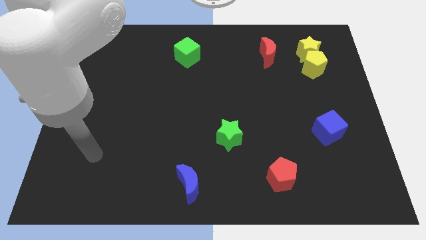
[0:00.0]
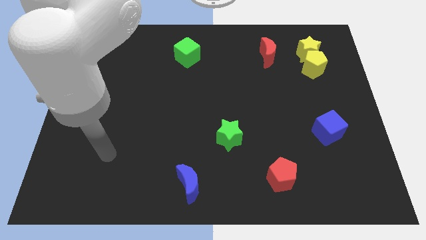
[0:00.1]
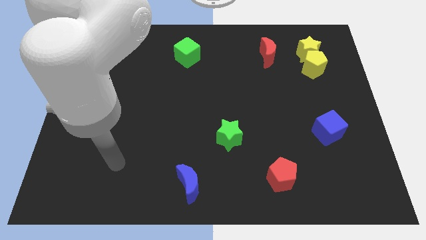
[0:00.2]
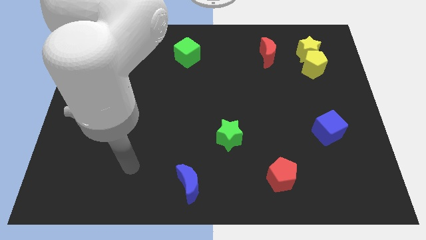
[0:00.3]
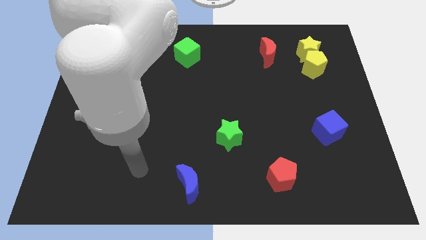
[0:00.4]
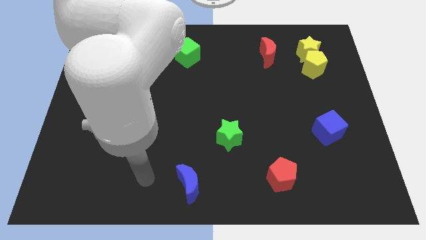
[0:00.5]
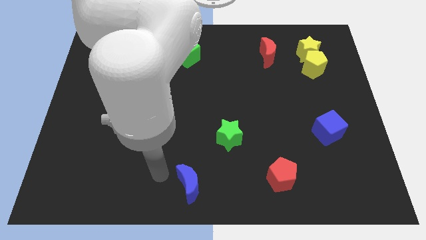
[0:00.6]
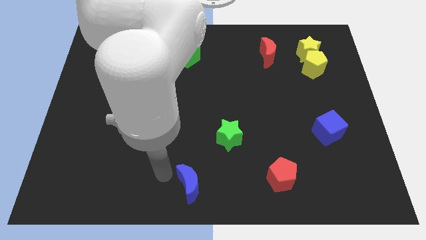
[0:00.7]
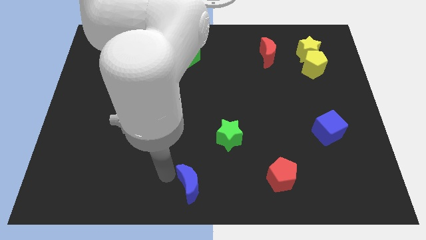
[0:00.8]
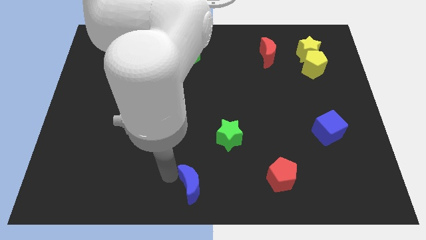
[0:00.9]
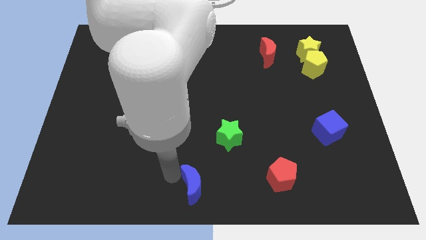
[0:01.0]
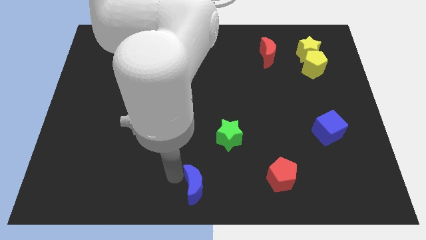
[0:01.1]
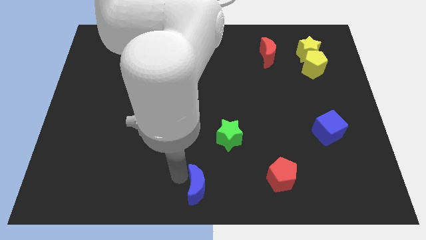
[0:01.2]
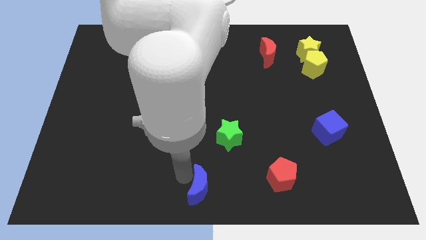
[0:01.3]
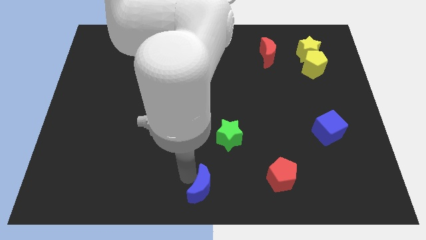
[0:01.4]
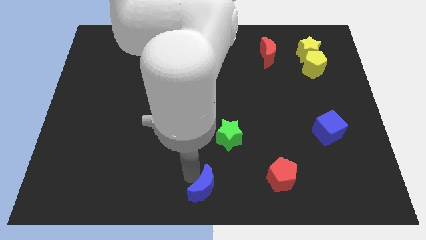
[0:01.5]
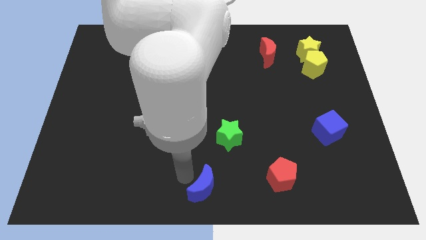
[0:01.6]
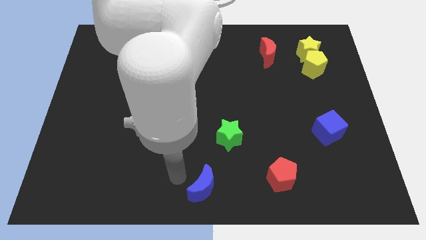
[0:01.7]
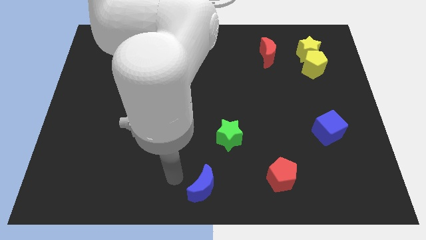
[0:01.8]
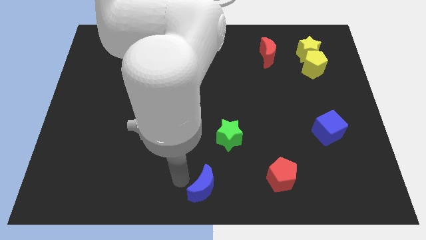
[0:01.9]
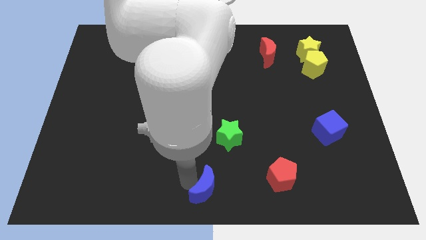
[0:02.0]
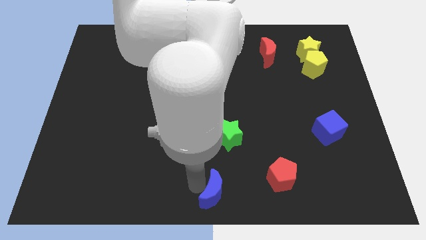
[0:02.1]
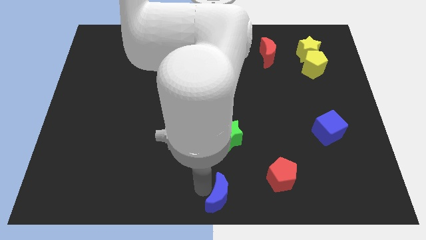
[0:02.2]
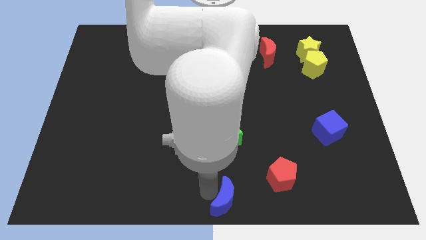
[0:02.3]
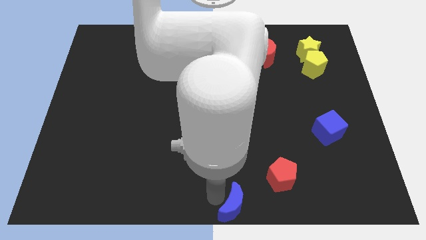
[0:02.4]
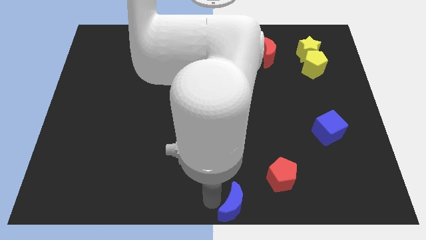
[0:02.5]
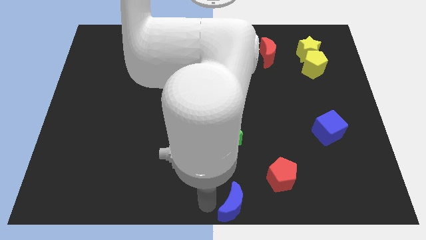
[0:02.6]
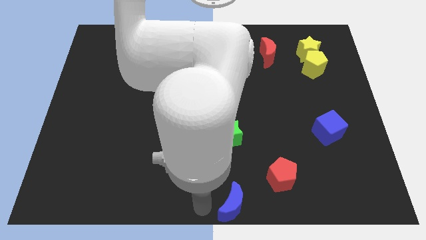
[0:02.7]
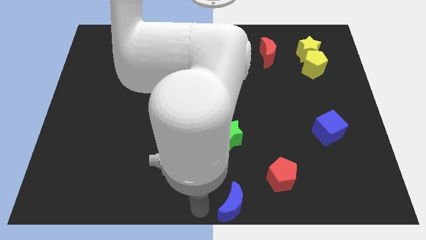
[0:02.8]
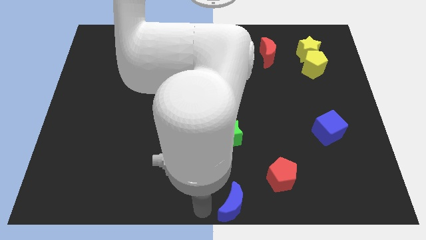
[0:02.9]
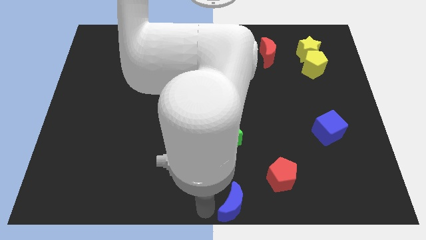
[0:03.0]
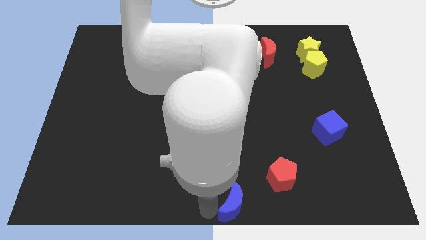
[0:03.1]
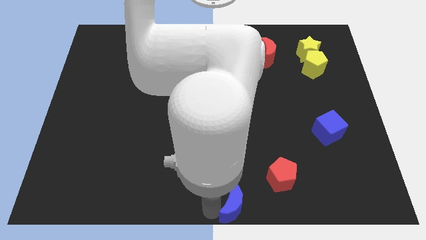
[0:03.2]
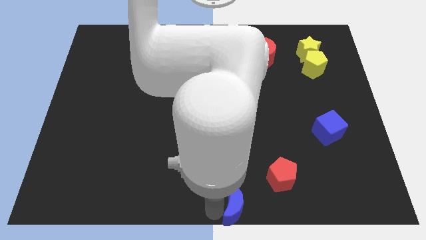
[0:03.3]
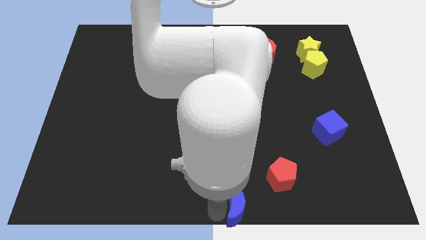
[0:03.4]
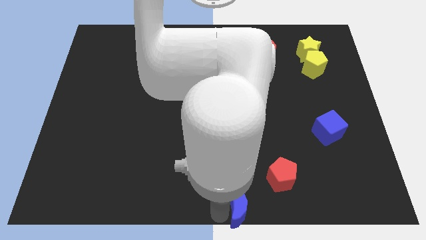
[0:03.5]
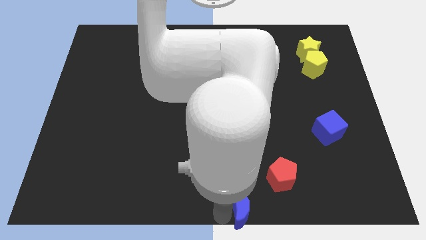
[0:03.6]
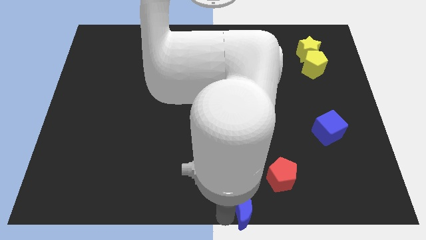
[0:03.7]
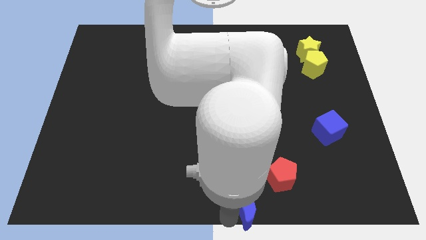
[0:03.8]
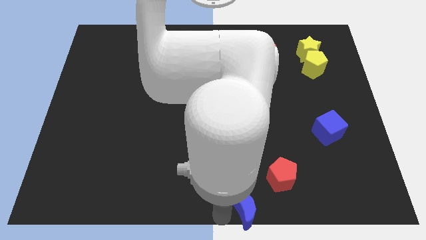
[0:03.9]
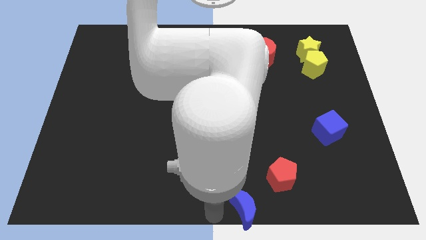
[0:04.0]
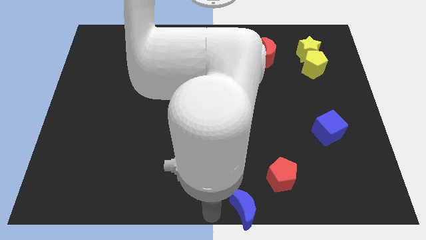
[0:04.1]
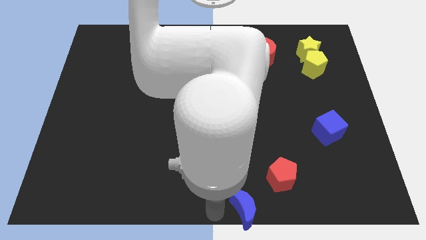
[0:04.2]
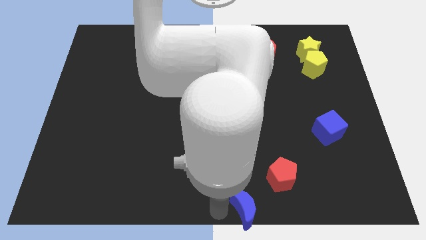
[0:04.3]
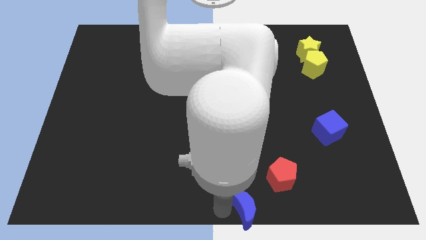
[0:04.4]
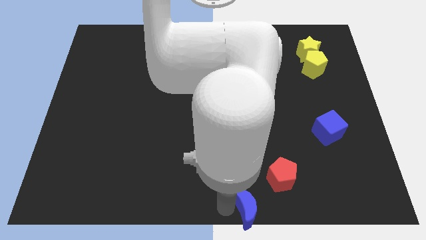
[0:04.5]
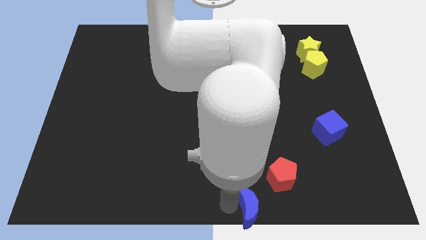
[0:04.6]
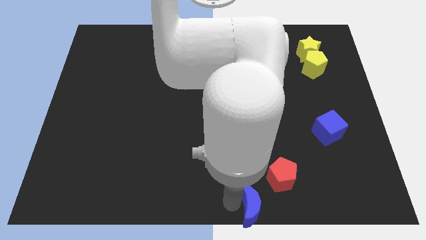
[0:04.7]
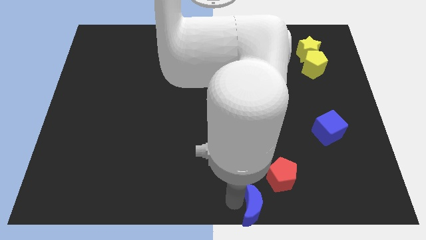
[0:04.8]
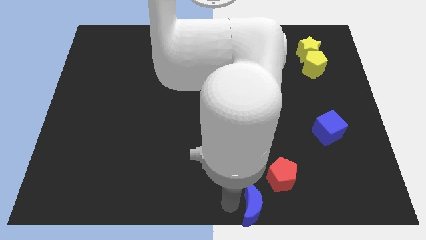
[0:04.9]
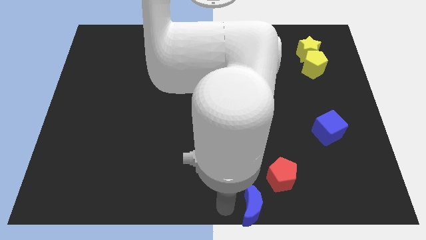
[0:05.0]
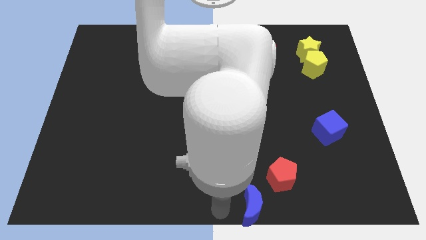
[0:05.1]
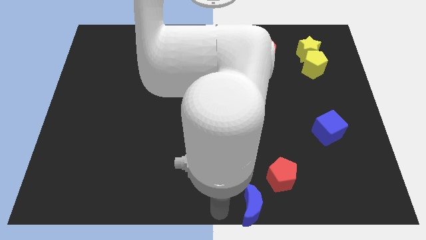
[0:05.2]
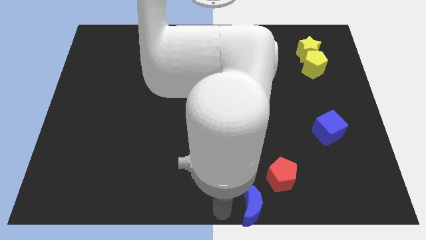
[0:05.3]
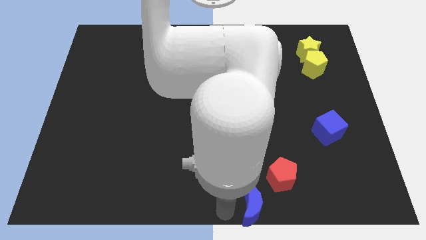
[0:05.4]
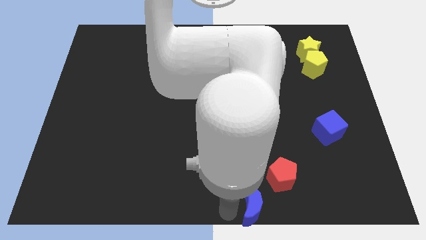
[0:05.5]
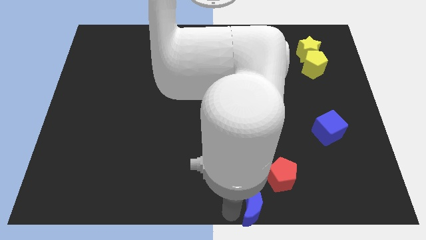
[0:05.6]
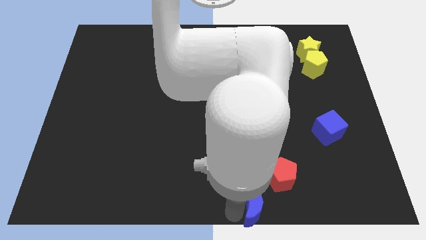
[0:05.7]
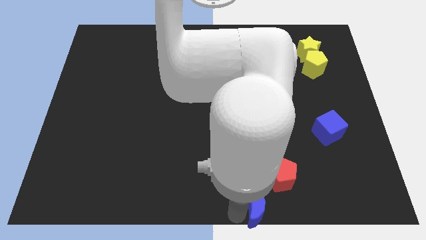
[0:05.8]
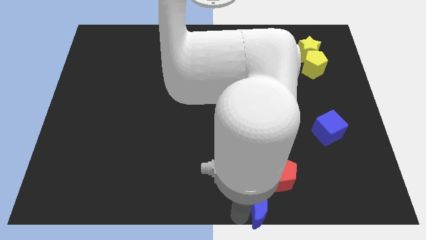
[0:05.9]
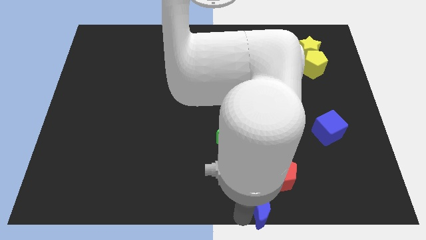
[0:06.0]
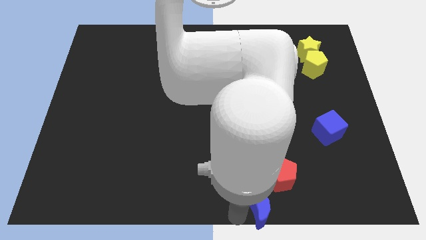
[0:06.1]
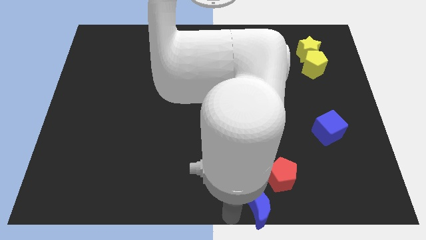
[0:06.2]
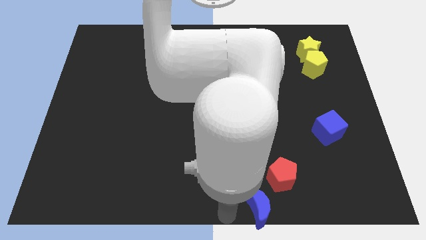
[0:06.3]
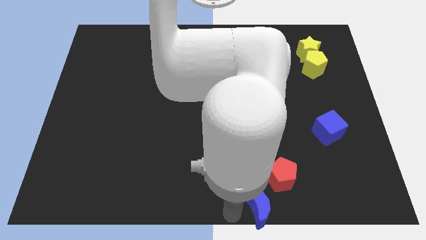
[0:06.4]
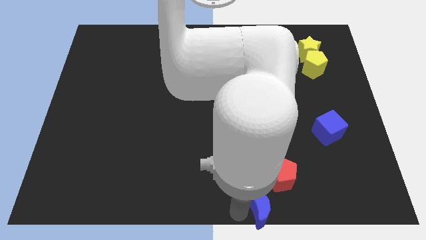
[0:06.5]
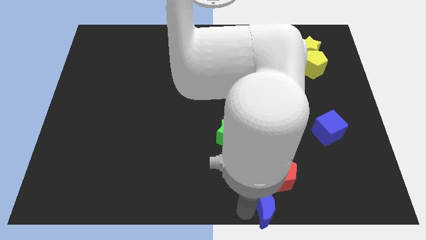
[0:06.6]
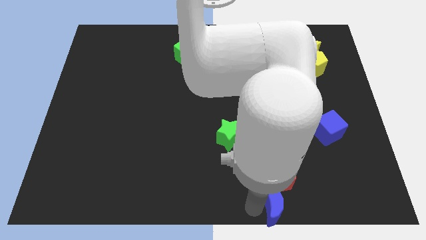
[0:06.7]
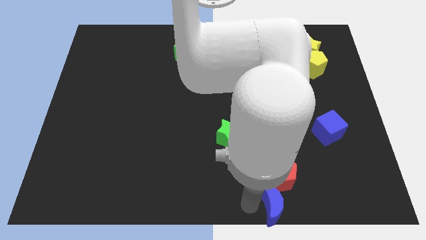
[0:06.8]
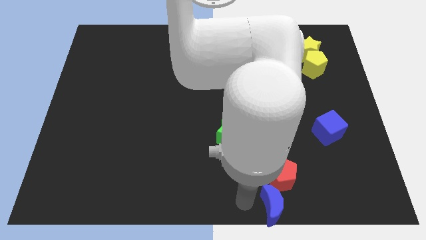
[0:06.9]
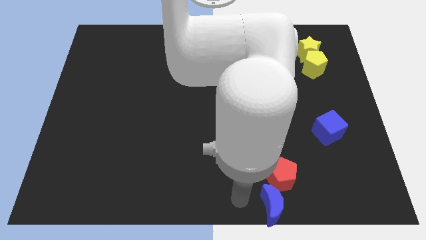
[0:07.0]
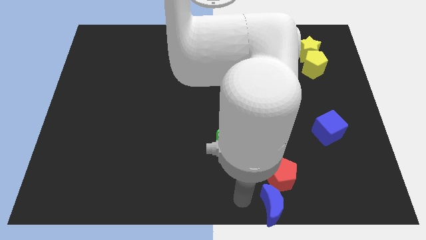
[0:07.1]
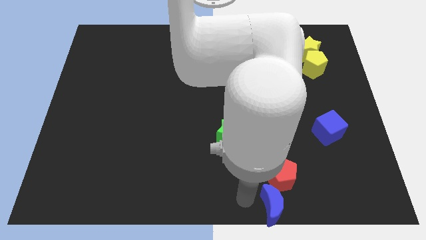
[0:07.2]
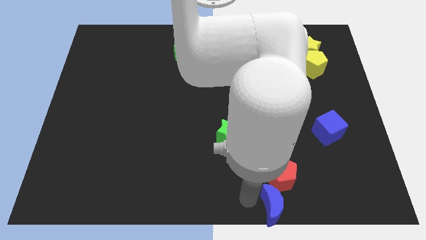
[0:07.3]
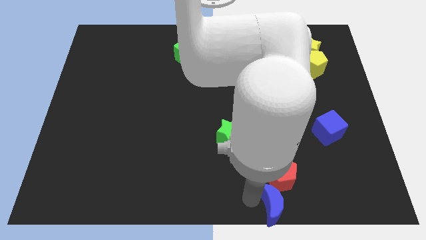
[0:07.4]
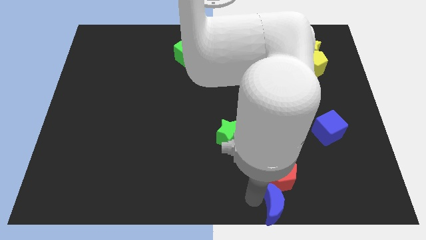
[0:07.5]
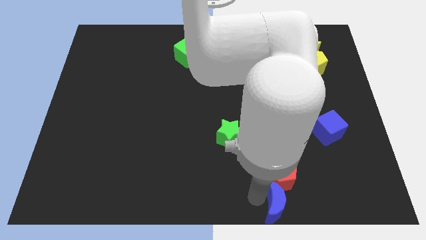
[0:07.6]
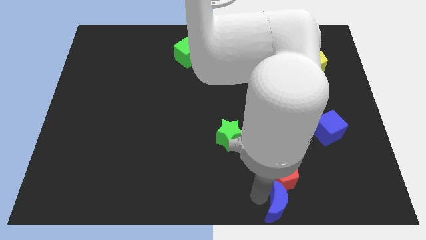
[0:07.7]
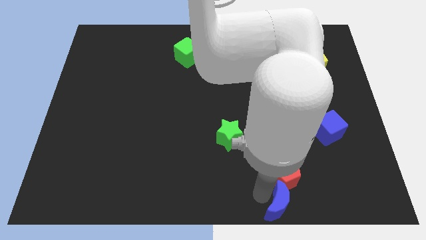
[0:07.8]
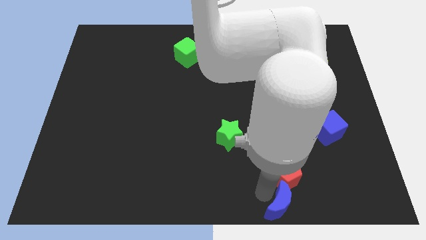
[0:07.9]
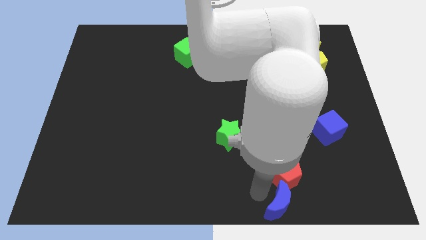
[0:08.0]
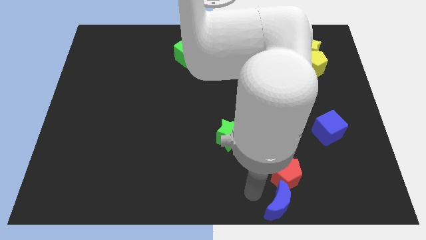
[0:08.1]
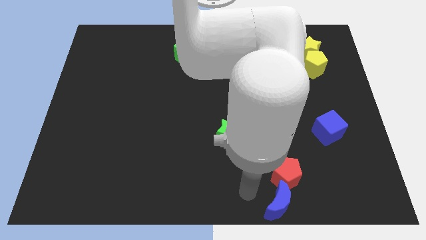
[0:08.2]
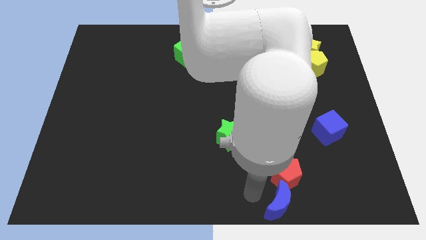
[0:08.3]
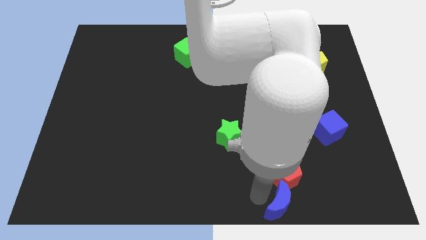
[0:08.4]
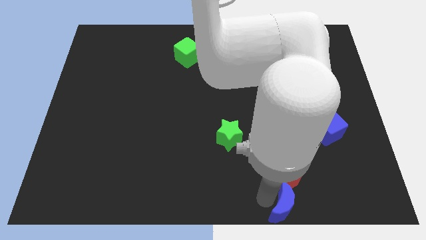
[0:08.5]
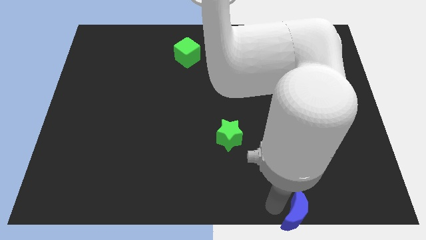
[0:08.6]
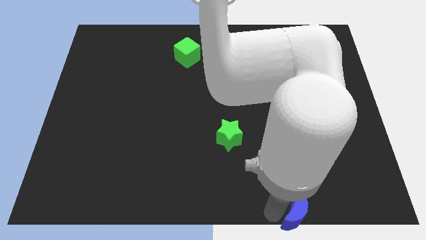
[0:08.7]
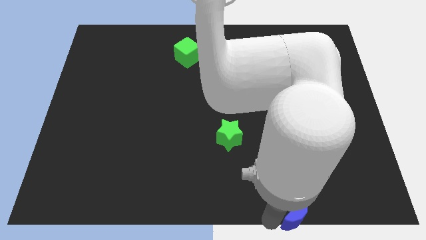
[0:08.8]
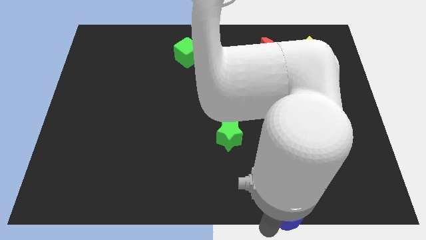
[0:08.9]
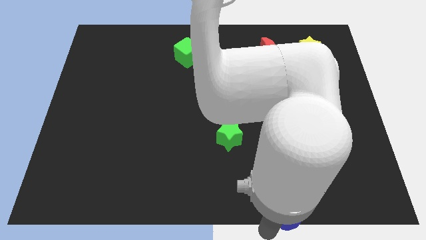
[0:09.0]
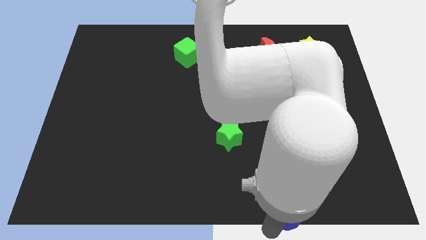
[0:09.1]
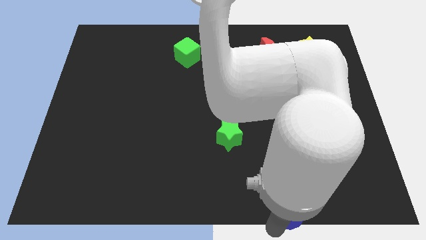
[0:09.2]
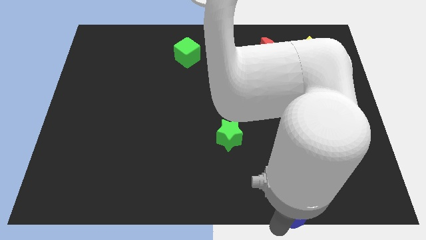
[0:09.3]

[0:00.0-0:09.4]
slide the blue moon to the right
